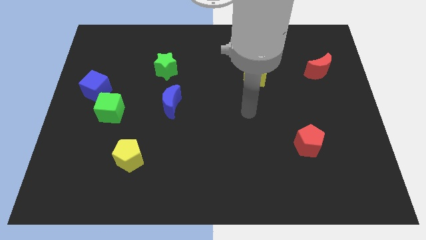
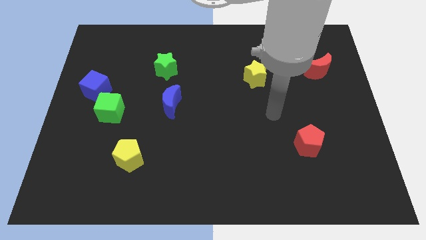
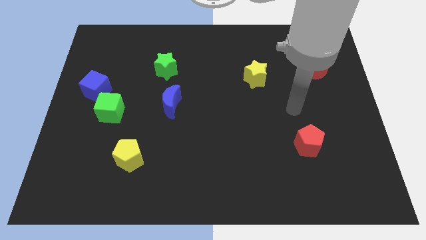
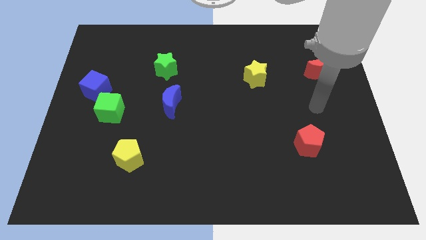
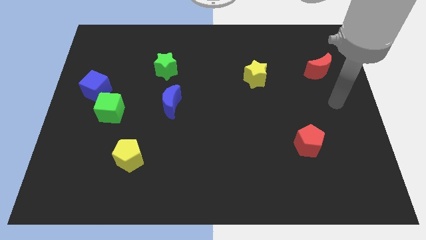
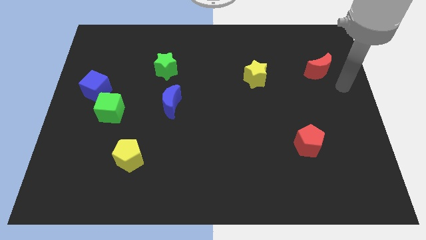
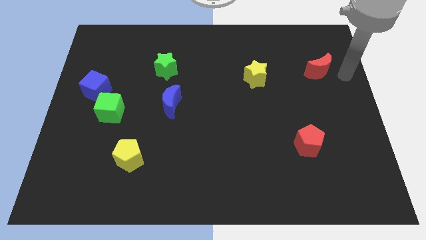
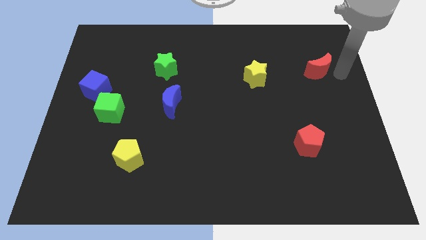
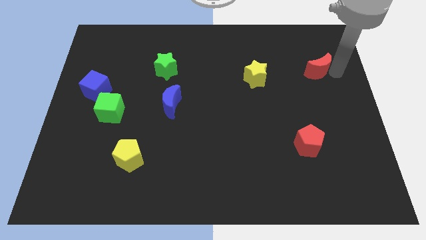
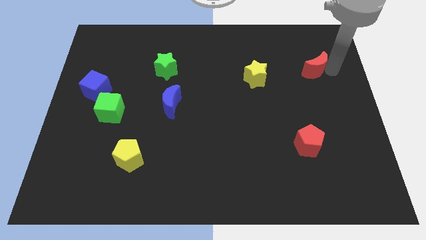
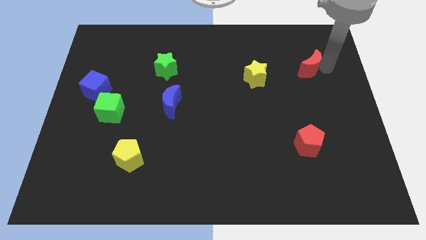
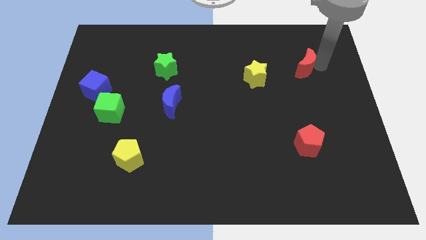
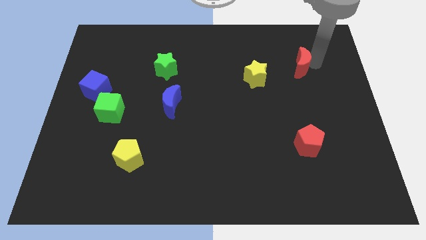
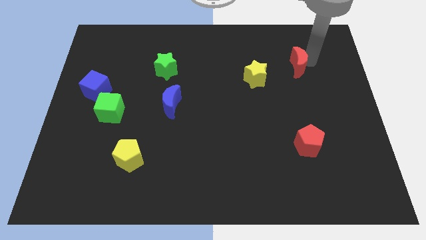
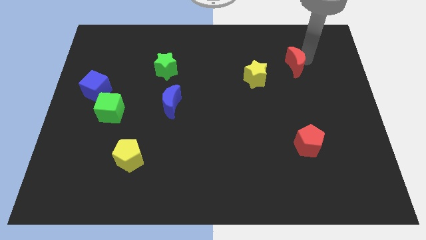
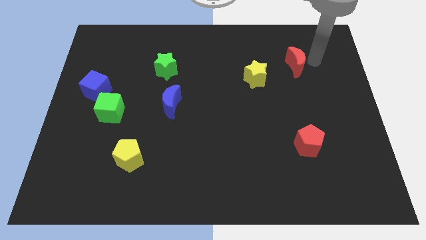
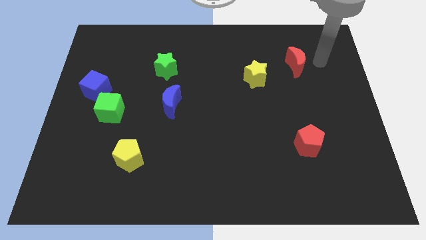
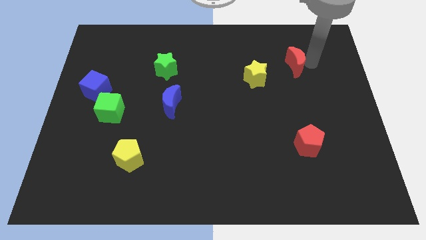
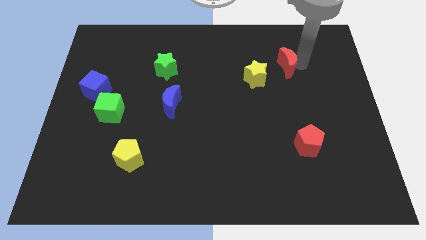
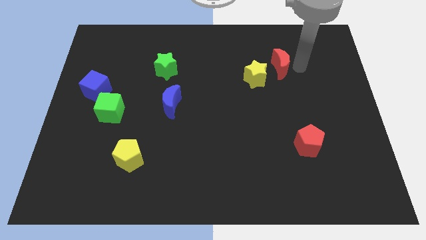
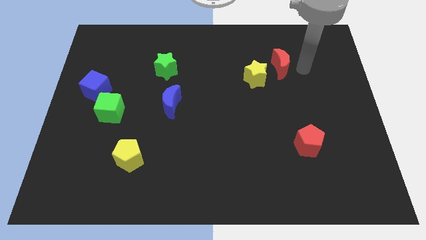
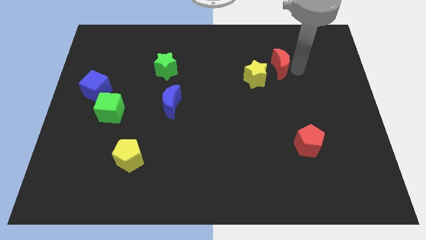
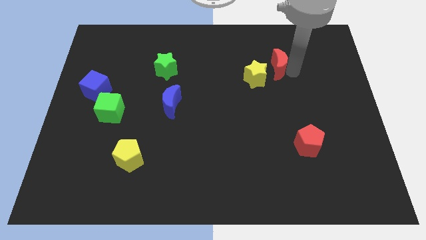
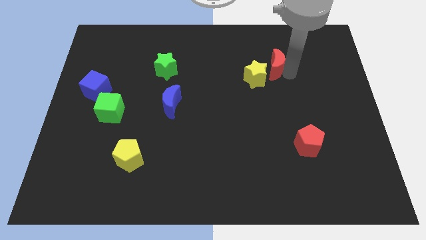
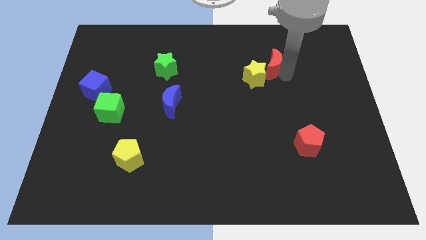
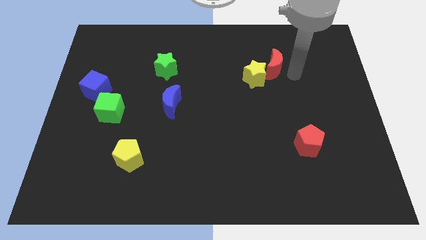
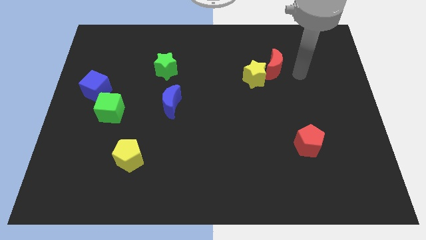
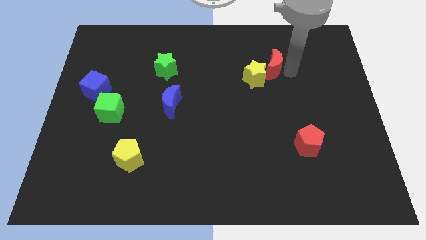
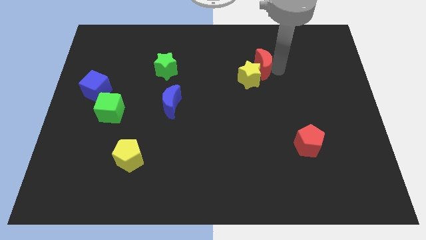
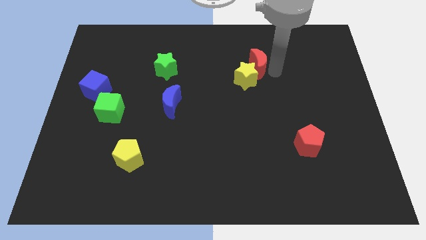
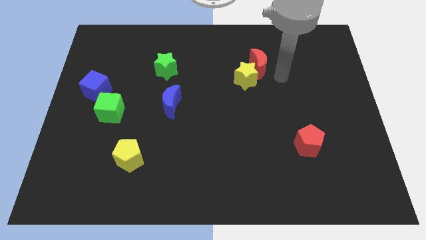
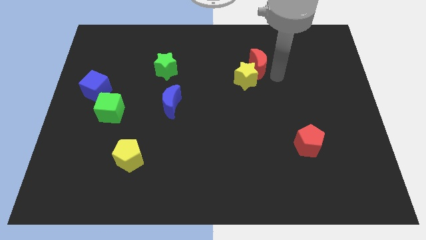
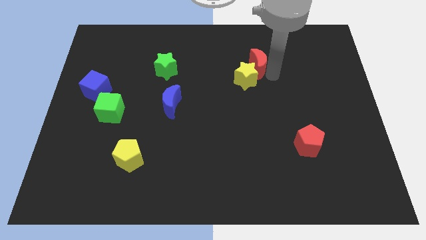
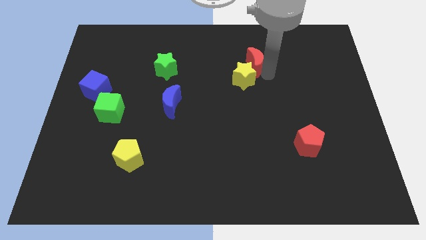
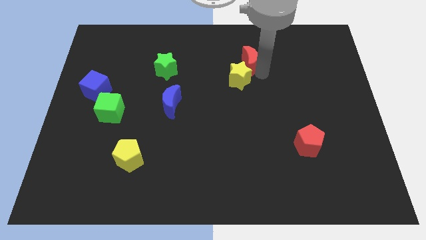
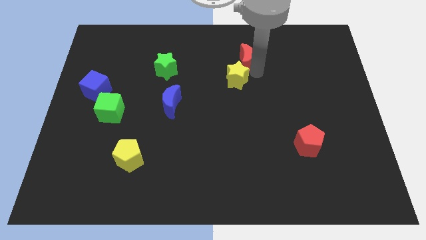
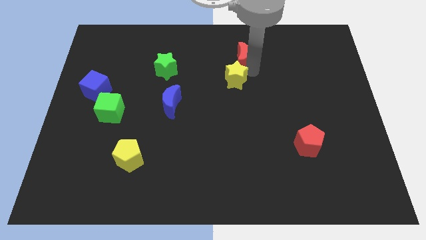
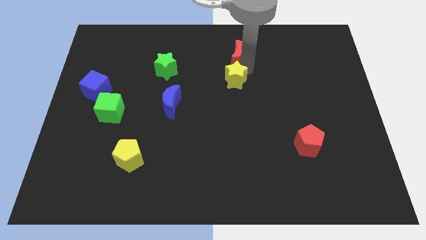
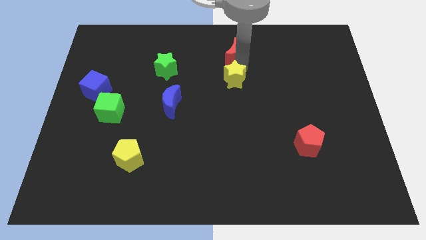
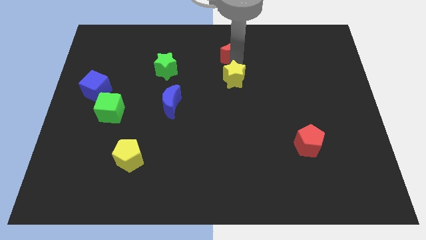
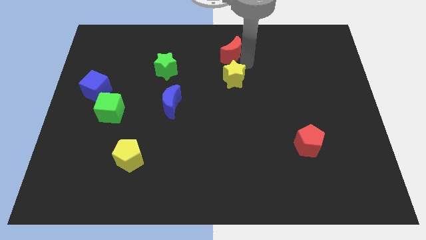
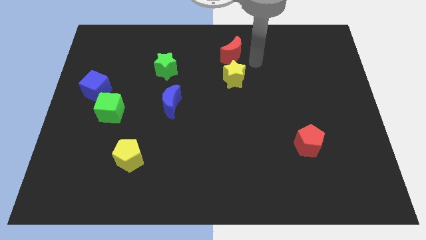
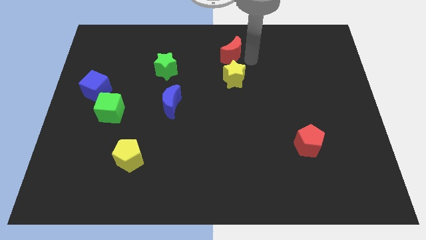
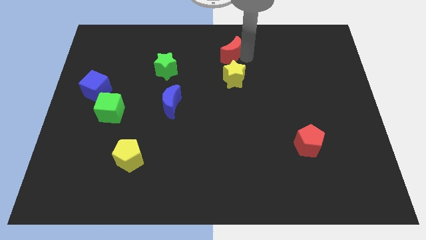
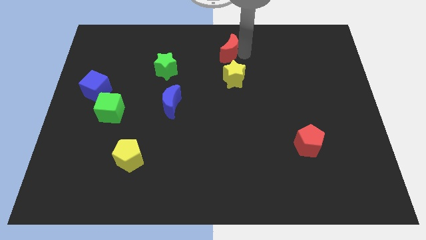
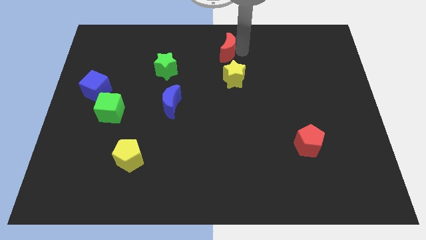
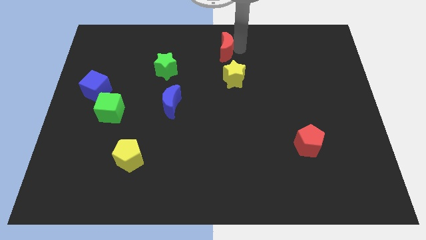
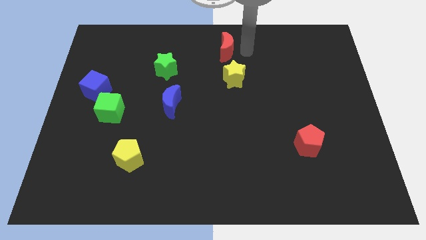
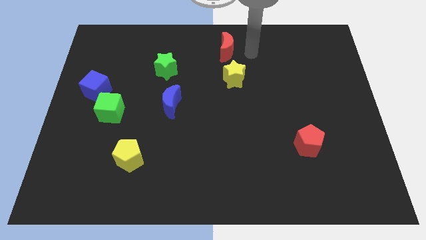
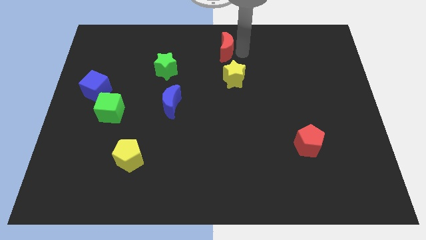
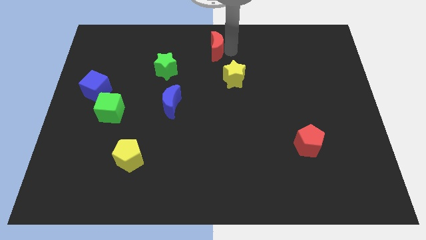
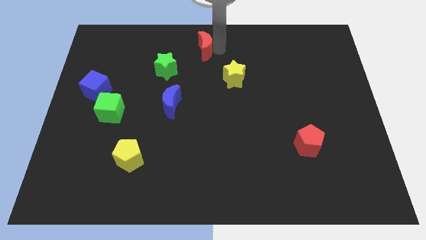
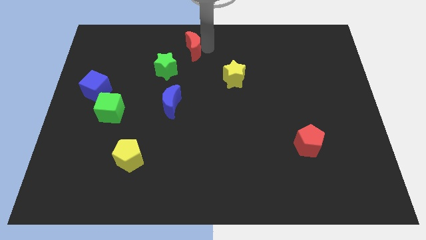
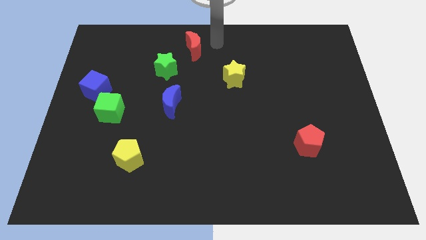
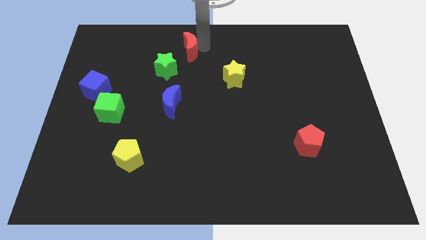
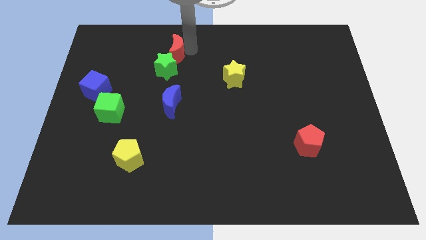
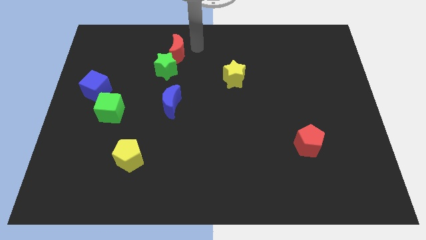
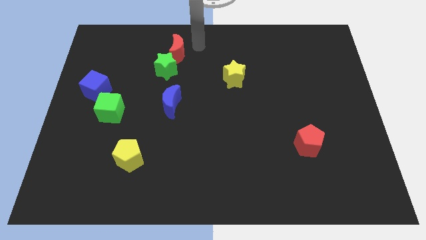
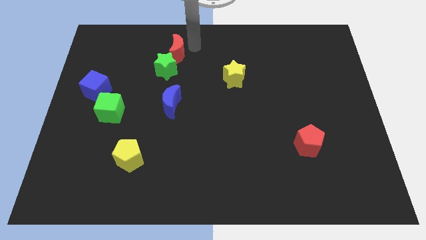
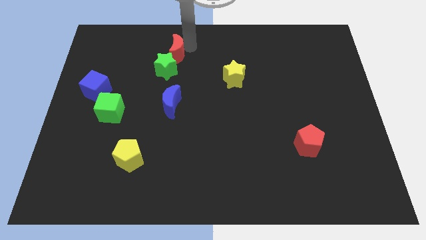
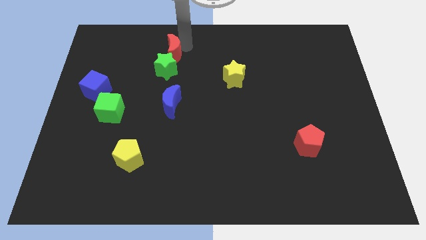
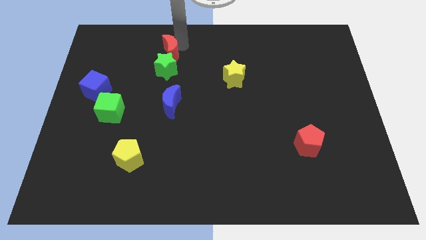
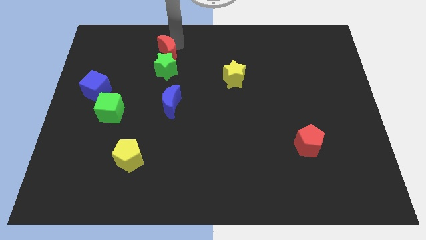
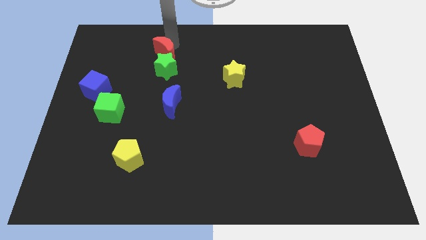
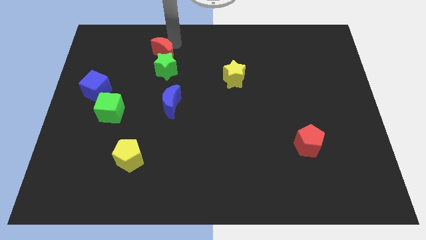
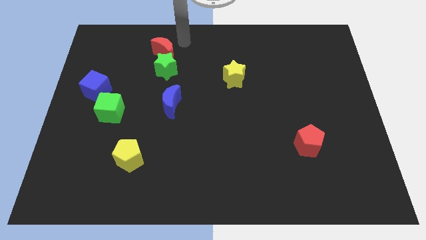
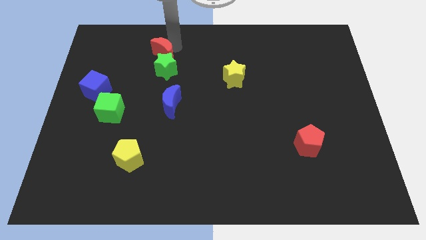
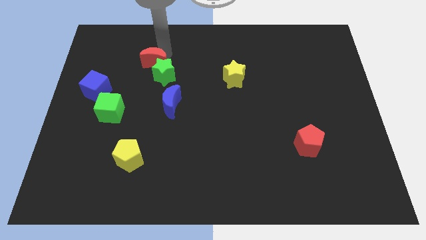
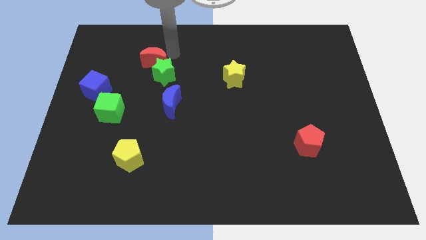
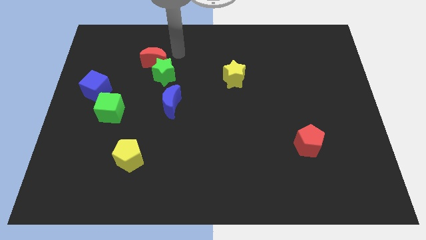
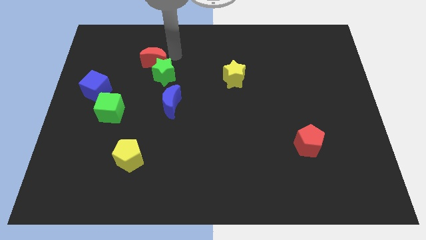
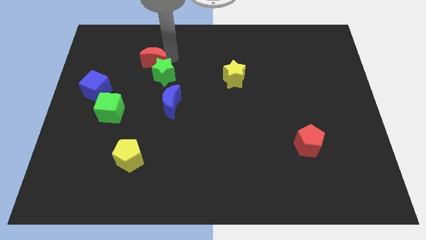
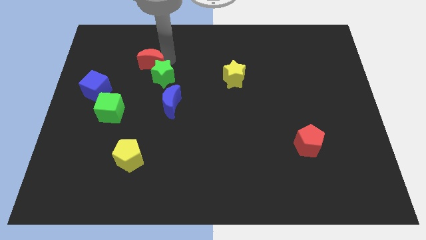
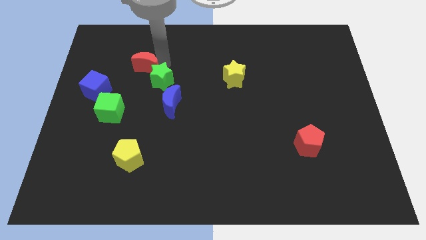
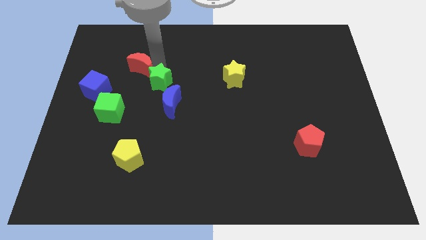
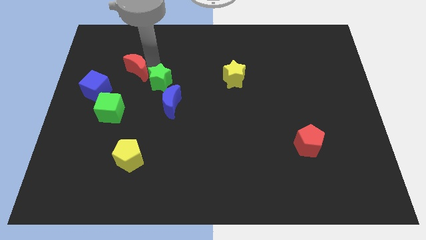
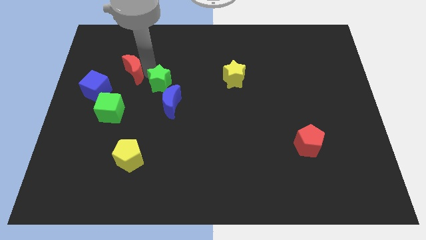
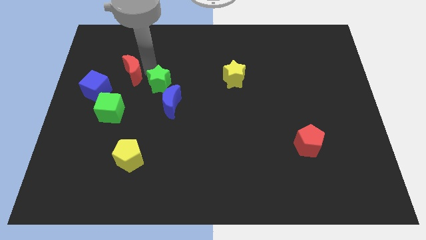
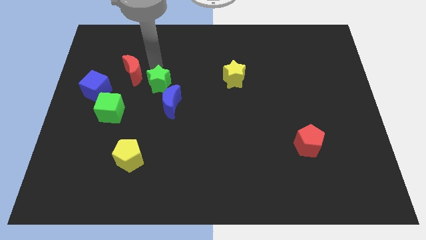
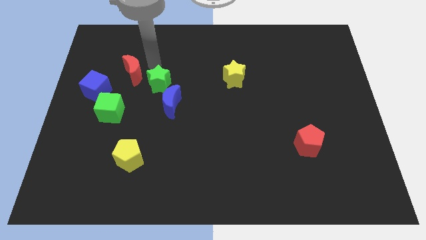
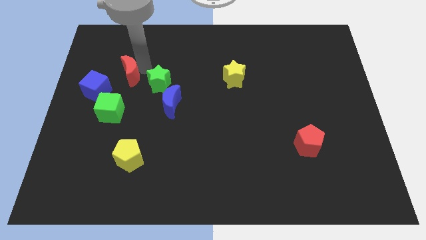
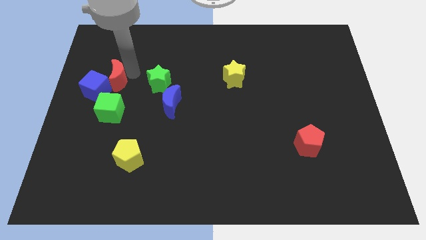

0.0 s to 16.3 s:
move the red moon next to the blue cube
